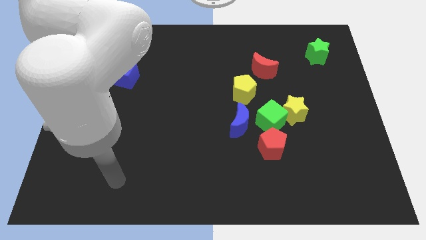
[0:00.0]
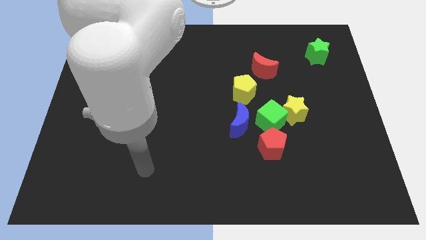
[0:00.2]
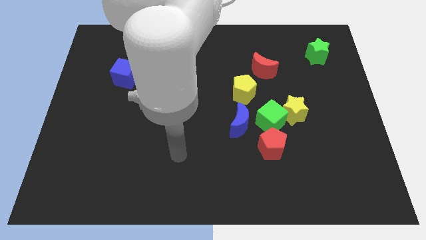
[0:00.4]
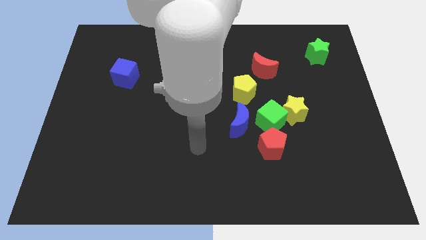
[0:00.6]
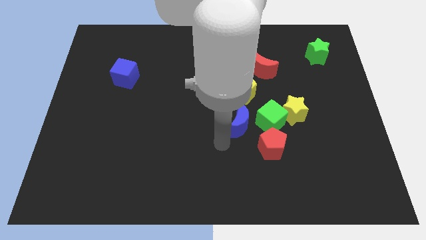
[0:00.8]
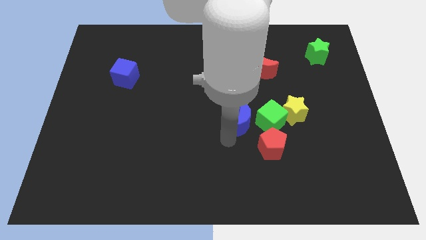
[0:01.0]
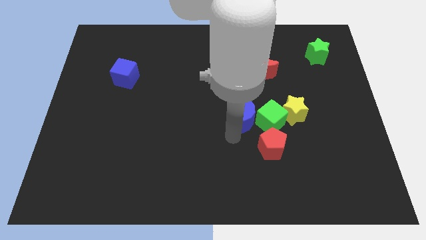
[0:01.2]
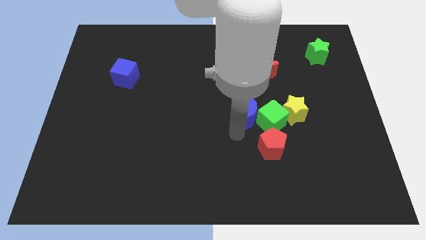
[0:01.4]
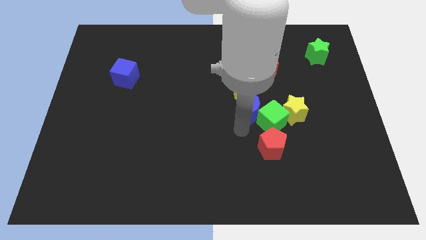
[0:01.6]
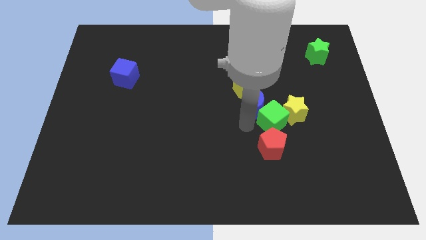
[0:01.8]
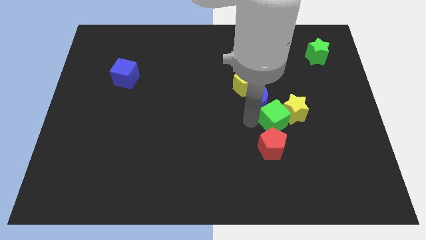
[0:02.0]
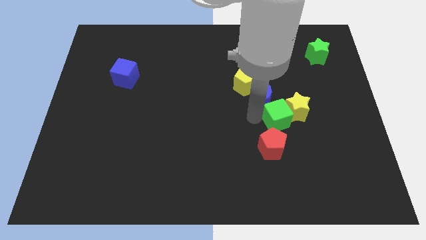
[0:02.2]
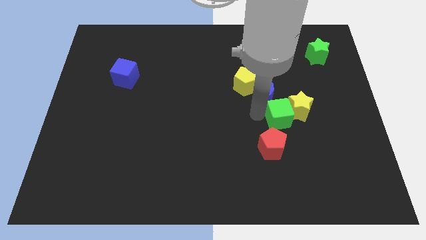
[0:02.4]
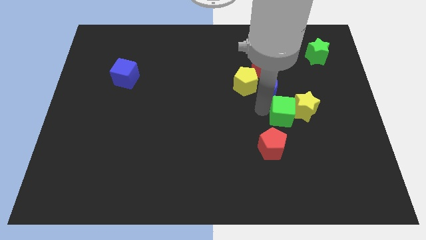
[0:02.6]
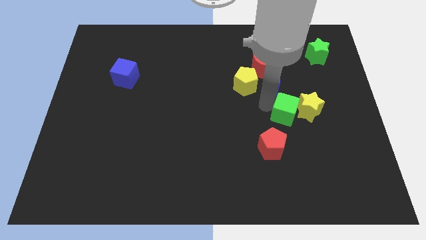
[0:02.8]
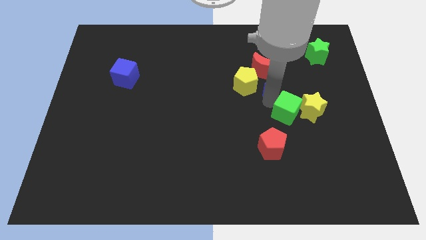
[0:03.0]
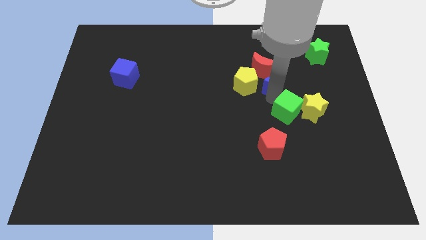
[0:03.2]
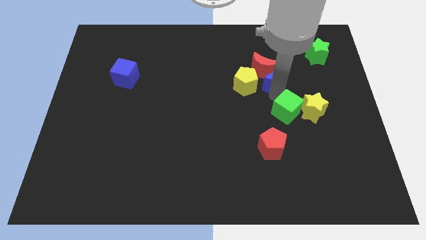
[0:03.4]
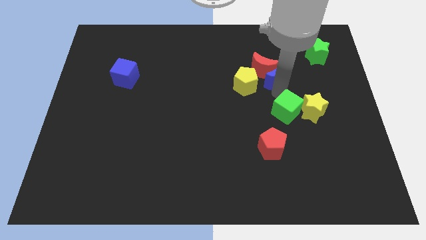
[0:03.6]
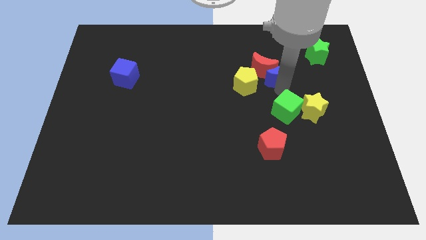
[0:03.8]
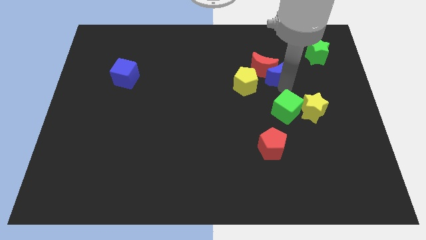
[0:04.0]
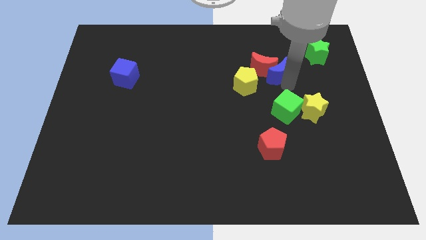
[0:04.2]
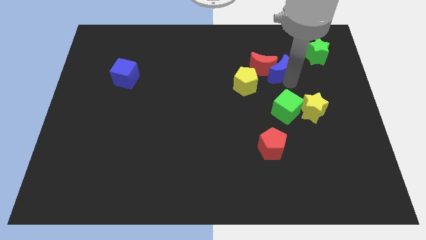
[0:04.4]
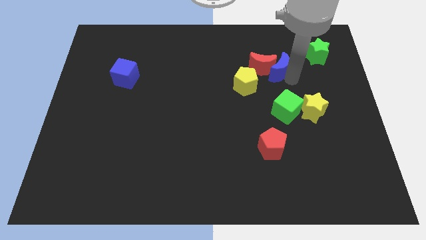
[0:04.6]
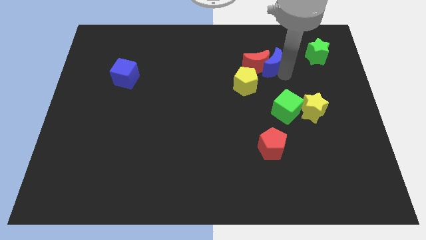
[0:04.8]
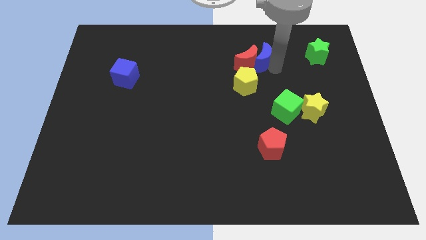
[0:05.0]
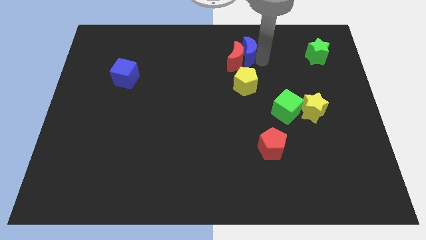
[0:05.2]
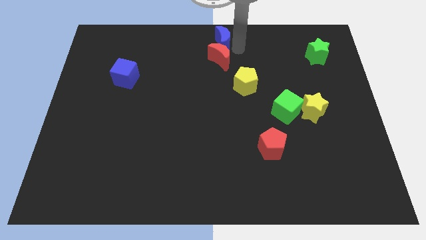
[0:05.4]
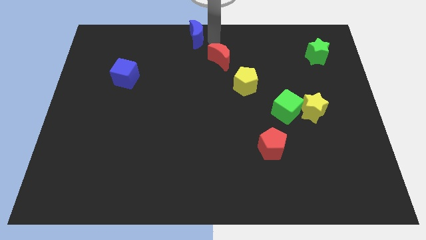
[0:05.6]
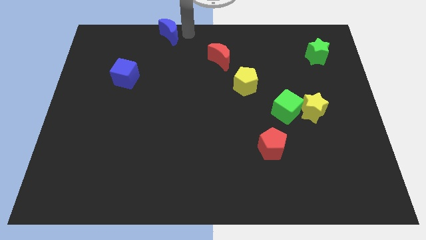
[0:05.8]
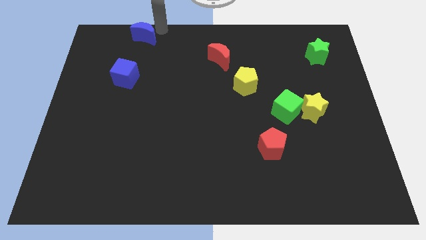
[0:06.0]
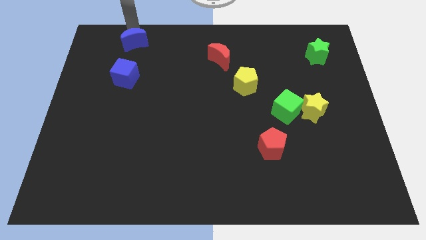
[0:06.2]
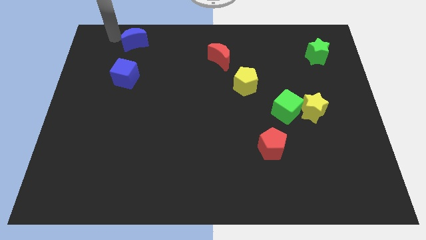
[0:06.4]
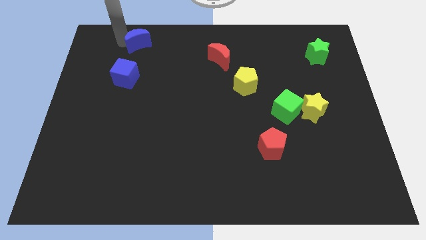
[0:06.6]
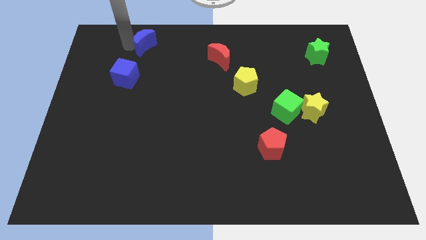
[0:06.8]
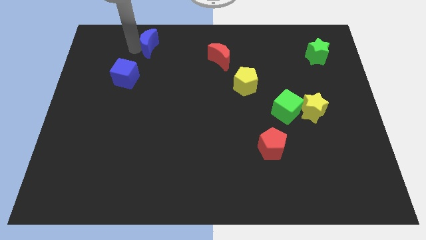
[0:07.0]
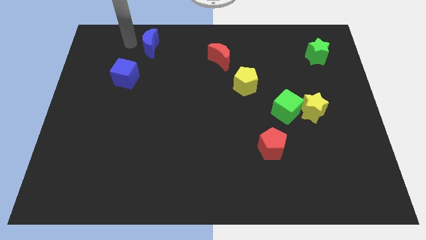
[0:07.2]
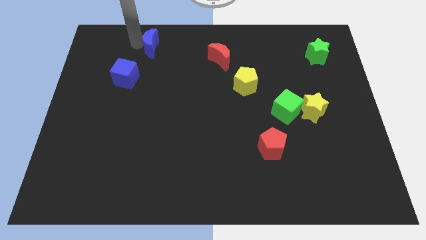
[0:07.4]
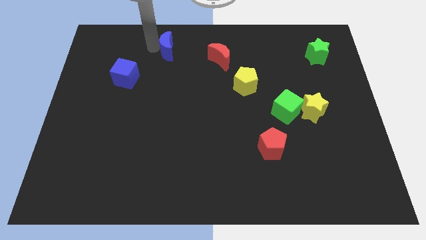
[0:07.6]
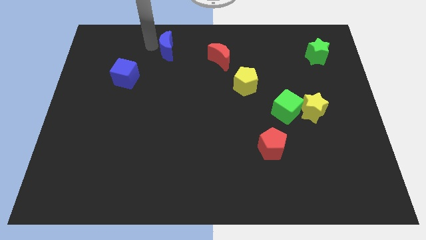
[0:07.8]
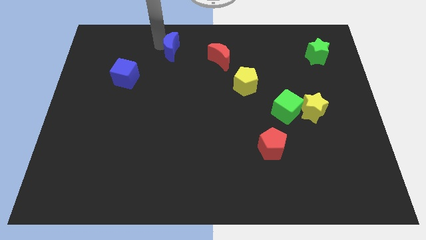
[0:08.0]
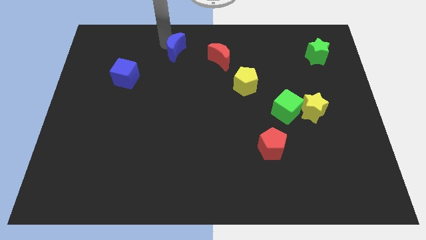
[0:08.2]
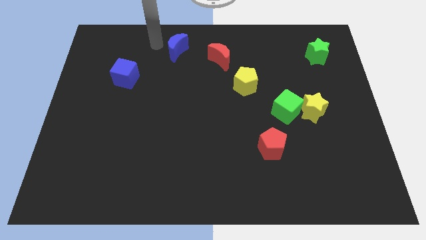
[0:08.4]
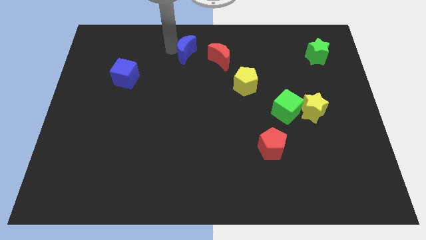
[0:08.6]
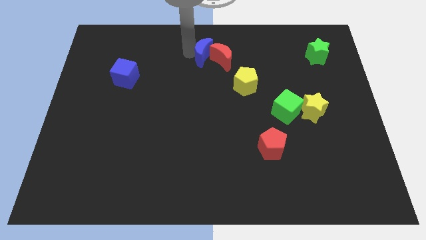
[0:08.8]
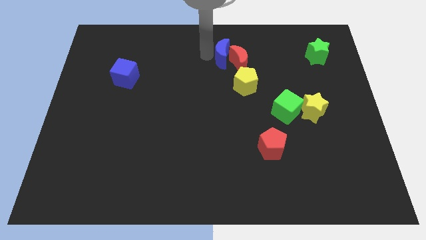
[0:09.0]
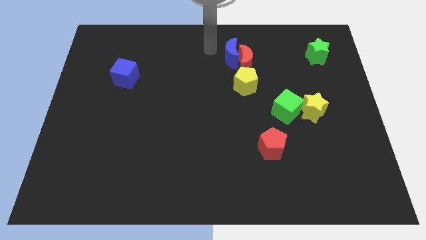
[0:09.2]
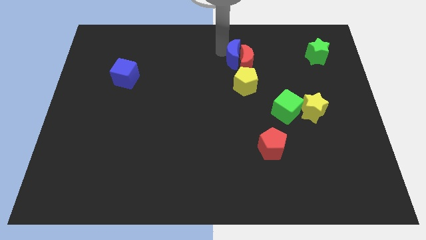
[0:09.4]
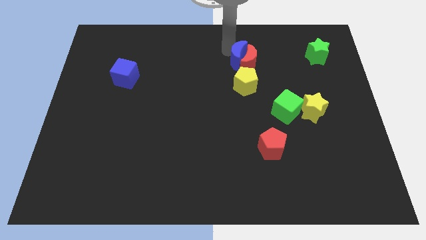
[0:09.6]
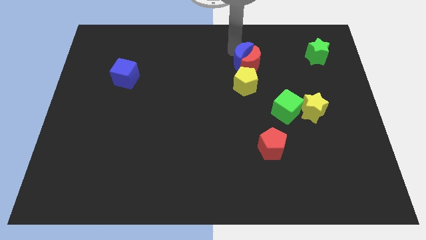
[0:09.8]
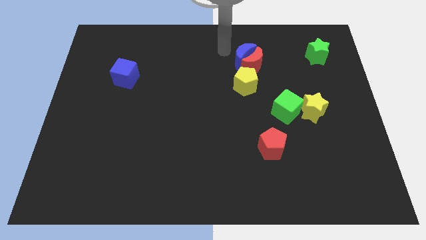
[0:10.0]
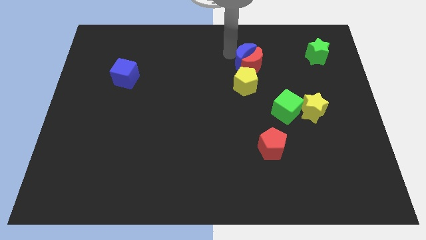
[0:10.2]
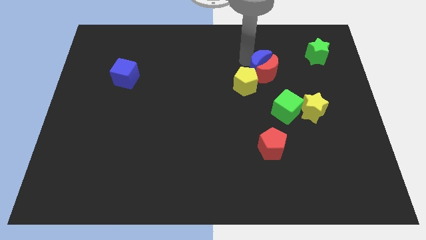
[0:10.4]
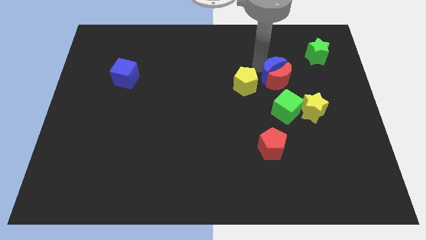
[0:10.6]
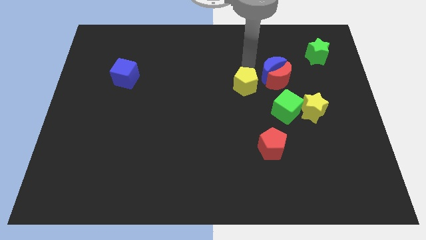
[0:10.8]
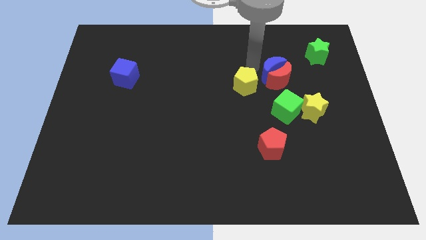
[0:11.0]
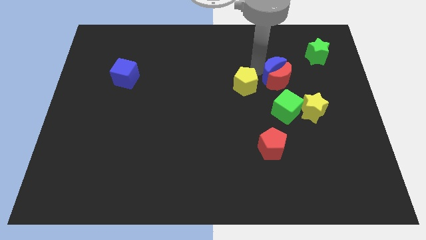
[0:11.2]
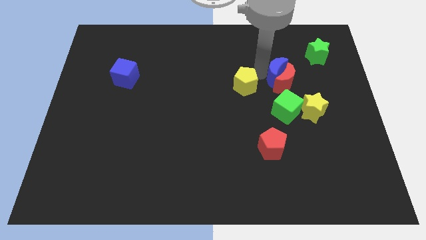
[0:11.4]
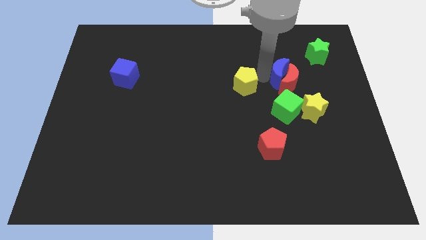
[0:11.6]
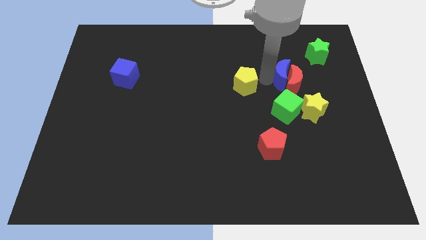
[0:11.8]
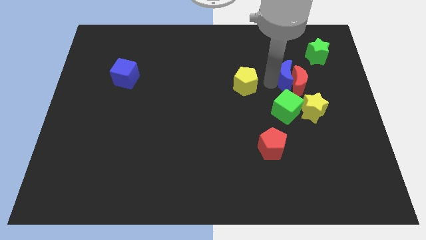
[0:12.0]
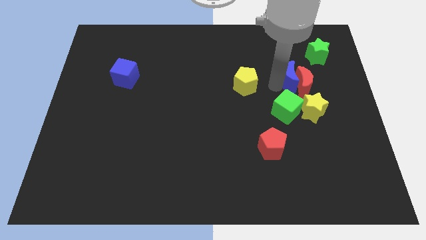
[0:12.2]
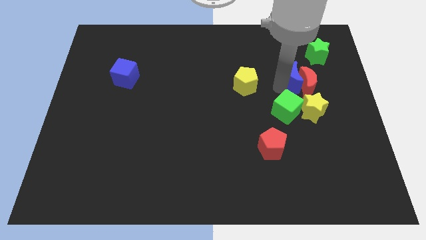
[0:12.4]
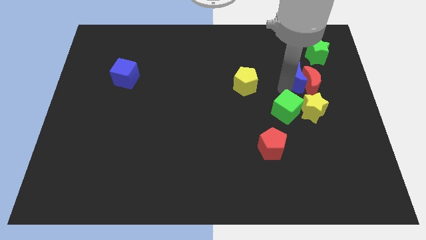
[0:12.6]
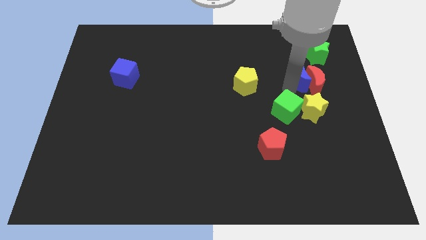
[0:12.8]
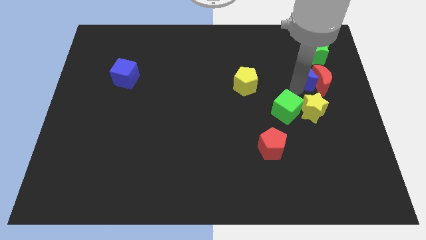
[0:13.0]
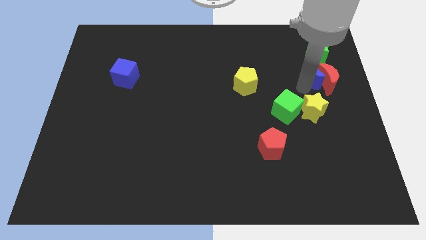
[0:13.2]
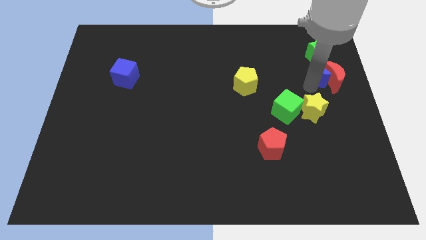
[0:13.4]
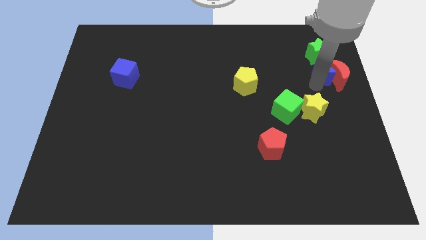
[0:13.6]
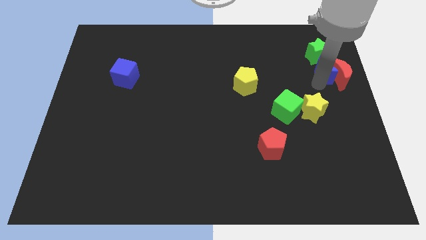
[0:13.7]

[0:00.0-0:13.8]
slide the blue moon close to the green star
